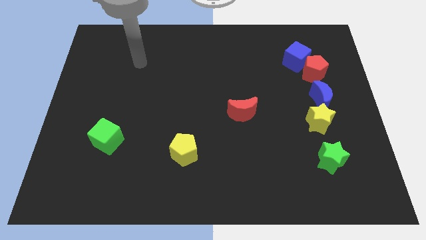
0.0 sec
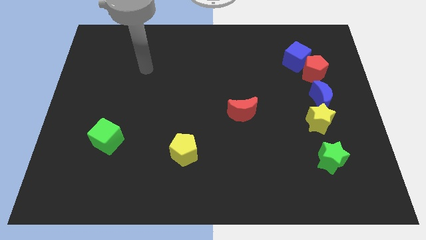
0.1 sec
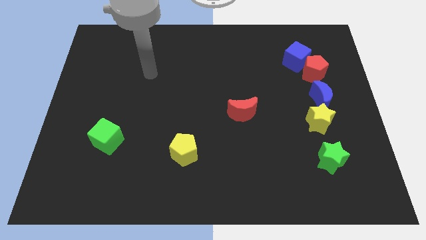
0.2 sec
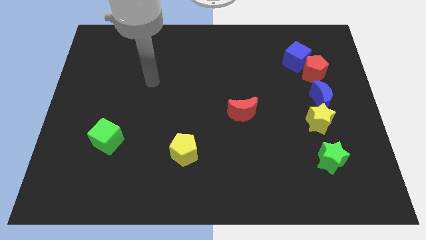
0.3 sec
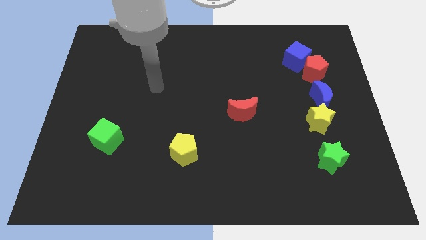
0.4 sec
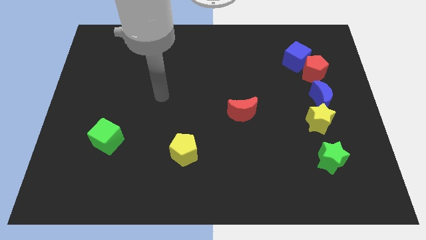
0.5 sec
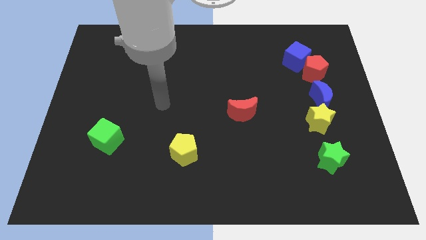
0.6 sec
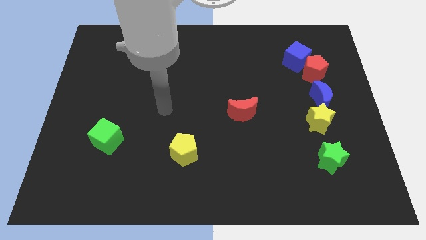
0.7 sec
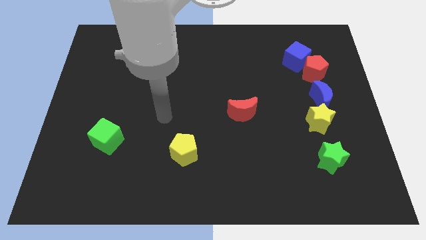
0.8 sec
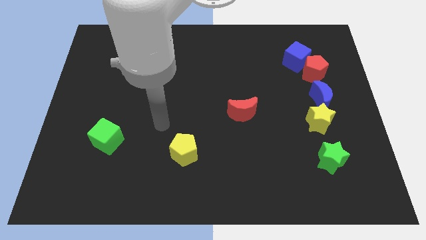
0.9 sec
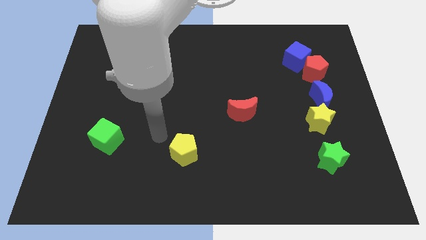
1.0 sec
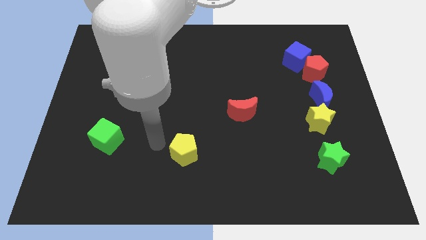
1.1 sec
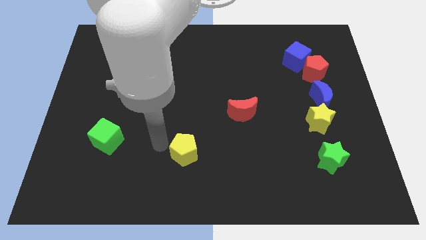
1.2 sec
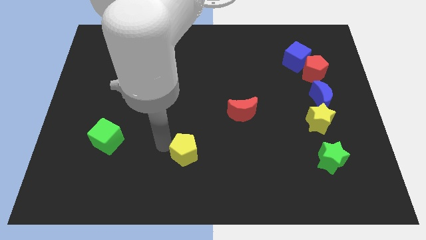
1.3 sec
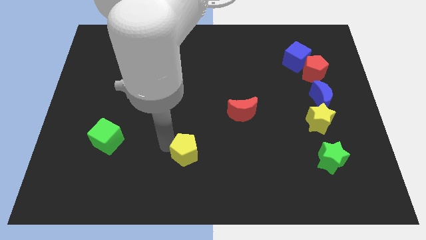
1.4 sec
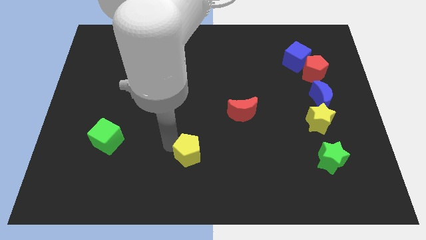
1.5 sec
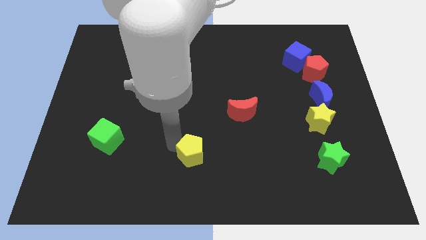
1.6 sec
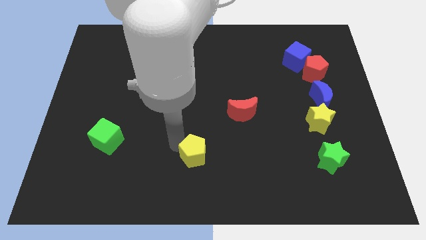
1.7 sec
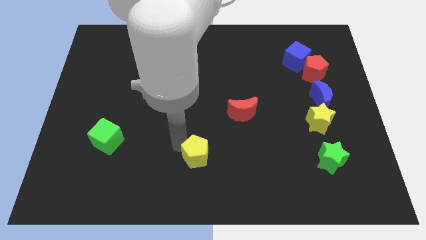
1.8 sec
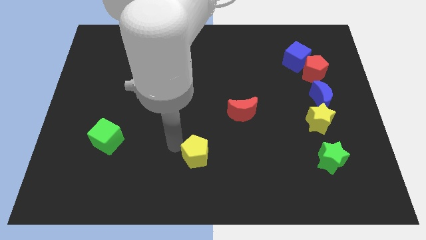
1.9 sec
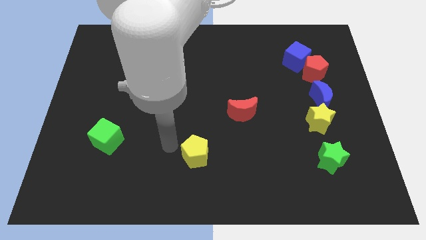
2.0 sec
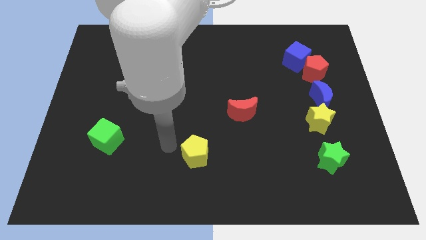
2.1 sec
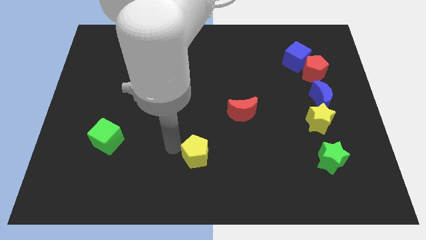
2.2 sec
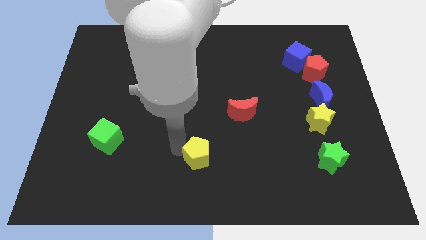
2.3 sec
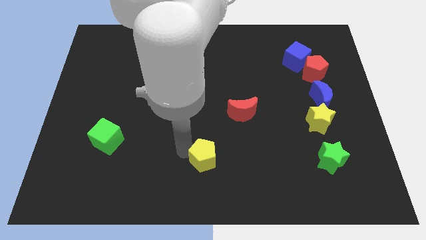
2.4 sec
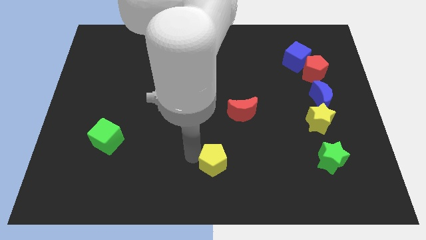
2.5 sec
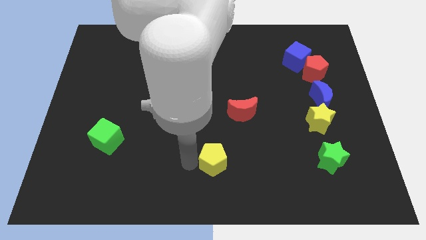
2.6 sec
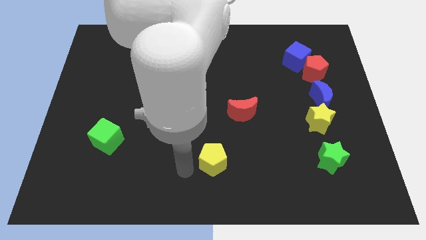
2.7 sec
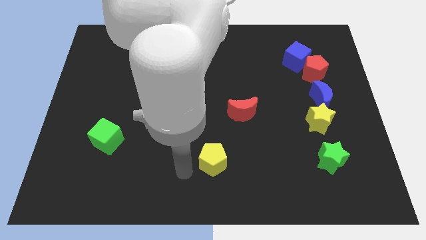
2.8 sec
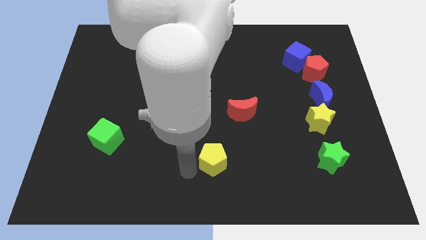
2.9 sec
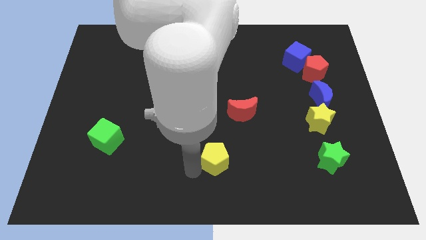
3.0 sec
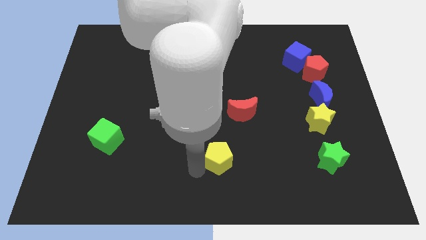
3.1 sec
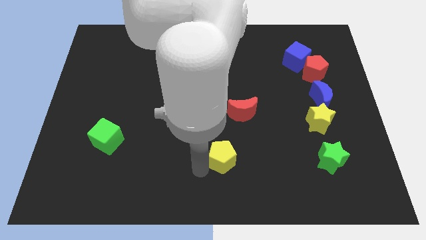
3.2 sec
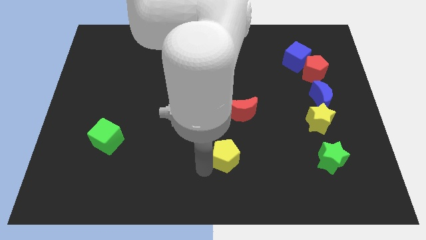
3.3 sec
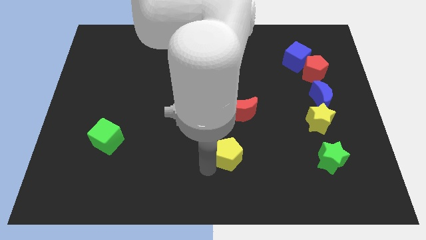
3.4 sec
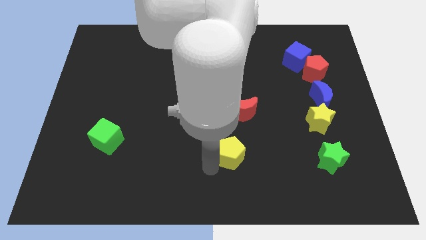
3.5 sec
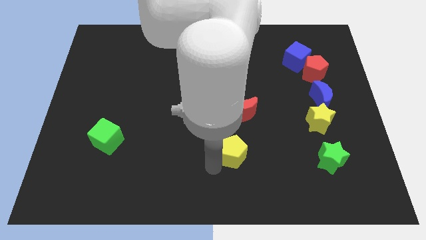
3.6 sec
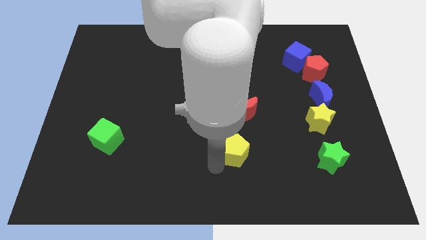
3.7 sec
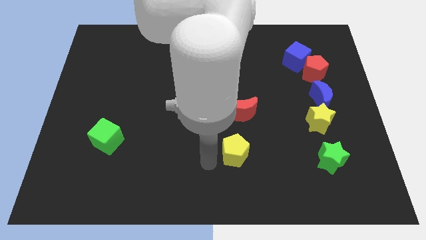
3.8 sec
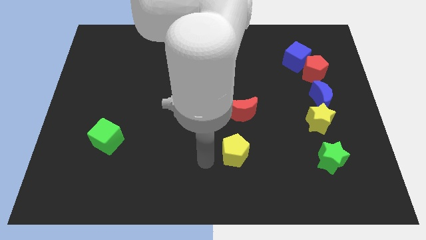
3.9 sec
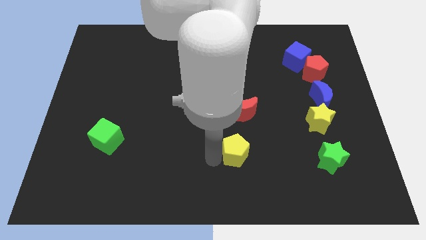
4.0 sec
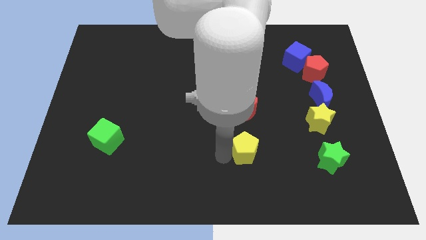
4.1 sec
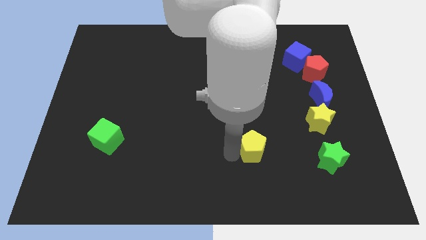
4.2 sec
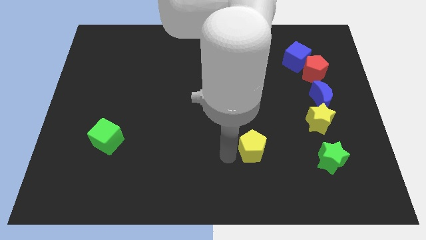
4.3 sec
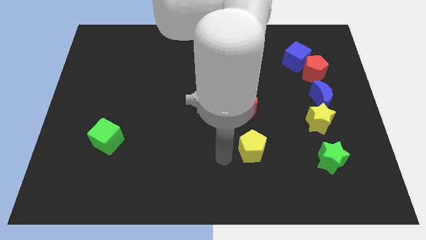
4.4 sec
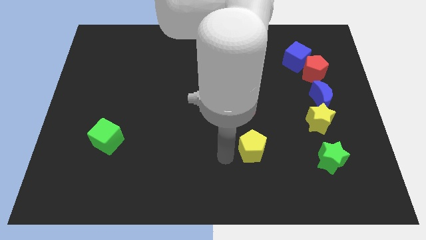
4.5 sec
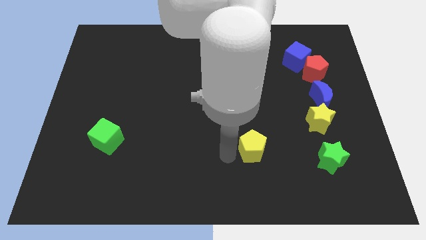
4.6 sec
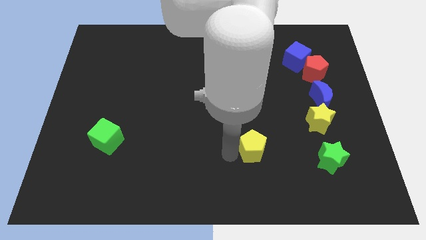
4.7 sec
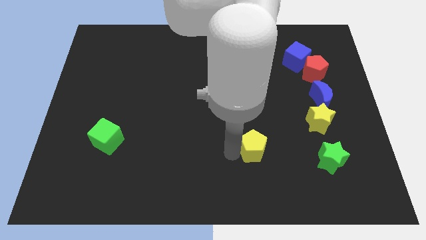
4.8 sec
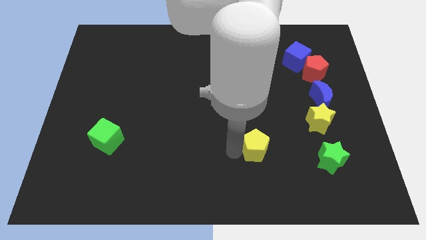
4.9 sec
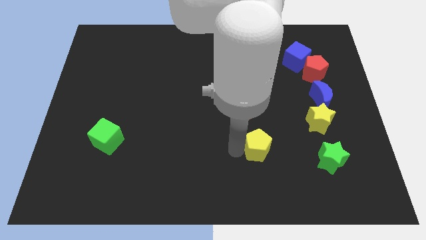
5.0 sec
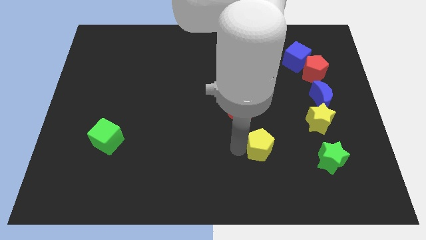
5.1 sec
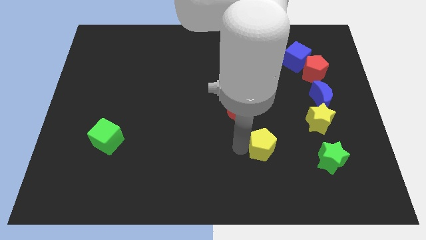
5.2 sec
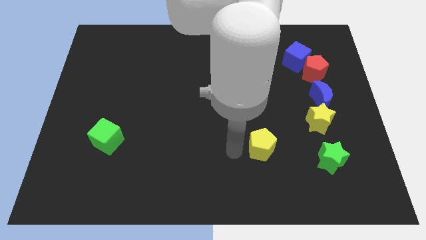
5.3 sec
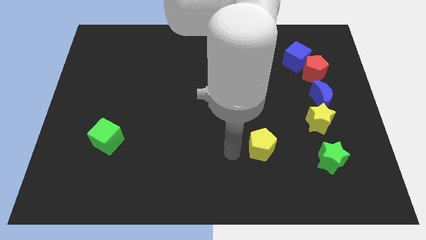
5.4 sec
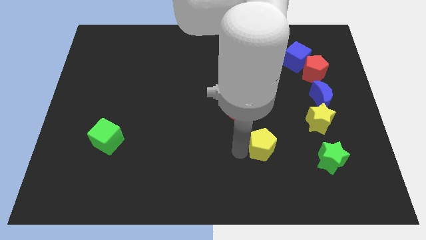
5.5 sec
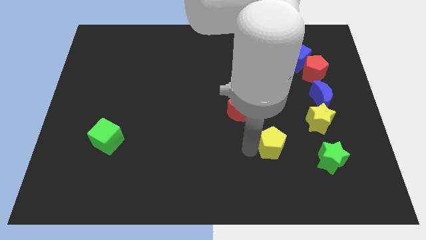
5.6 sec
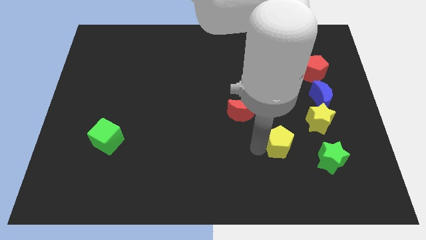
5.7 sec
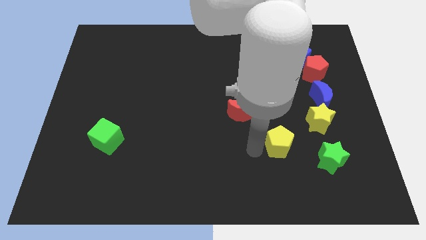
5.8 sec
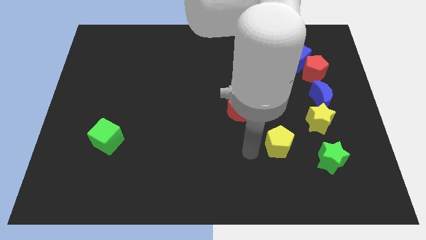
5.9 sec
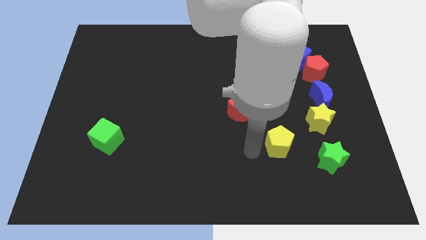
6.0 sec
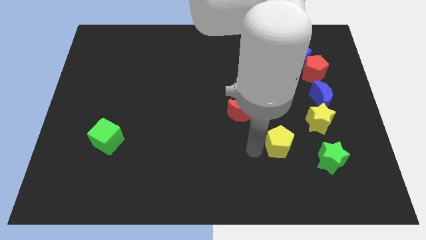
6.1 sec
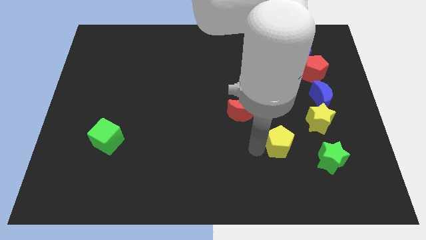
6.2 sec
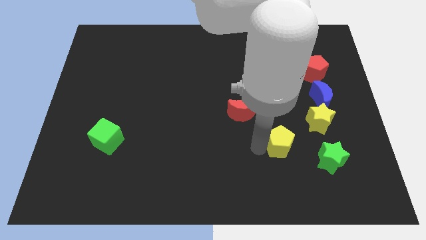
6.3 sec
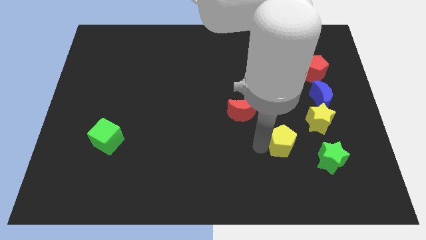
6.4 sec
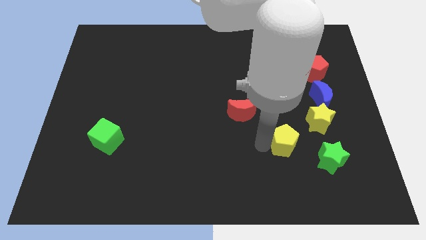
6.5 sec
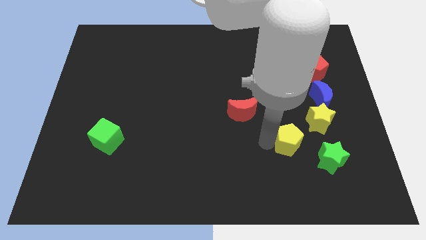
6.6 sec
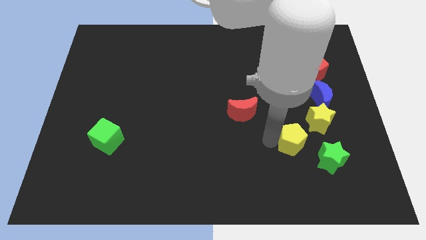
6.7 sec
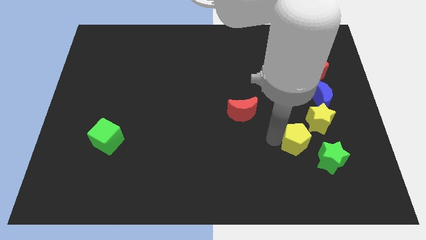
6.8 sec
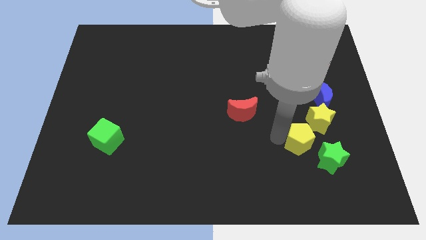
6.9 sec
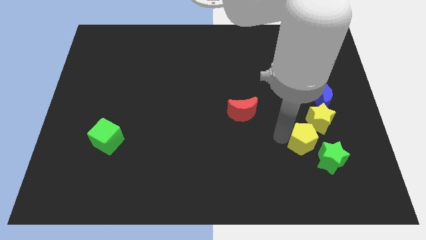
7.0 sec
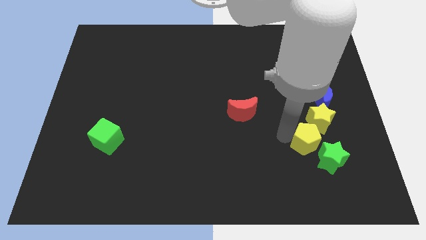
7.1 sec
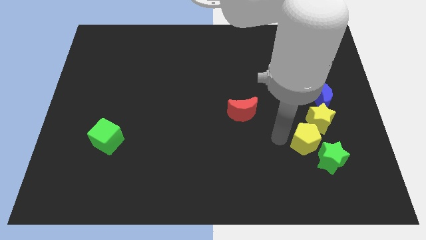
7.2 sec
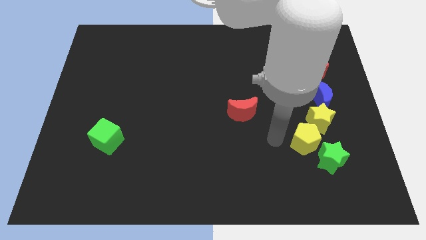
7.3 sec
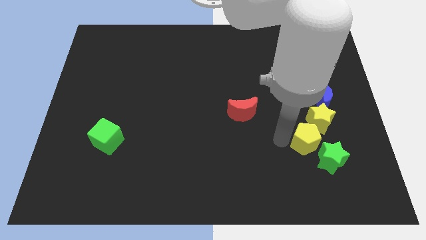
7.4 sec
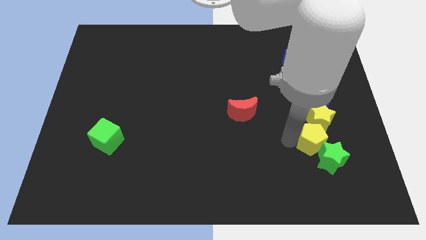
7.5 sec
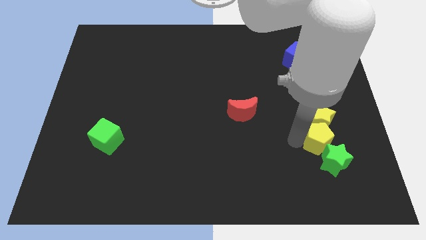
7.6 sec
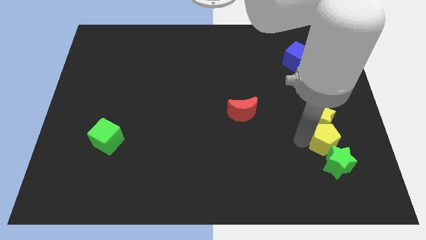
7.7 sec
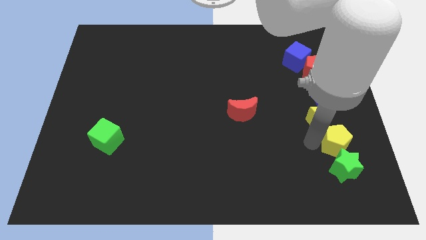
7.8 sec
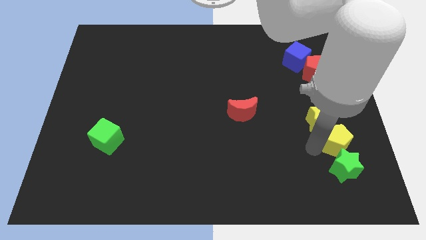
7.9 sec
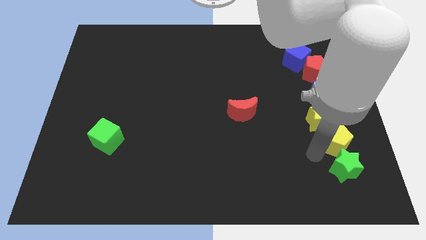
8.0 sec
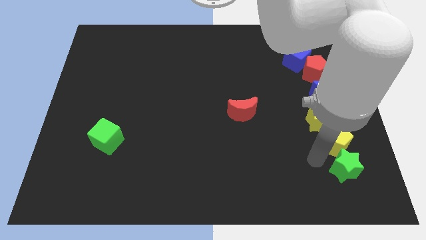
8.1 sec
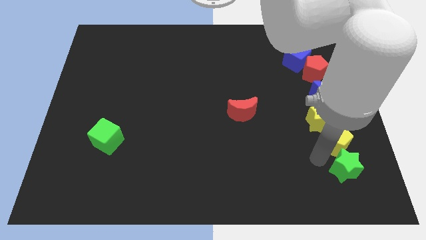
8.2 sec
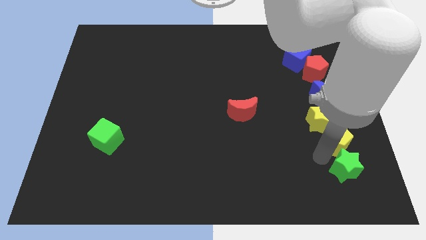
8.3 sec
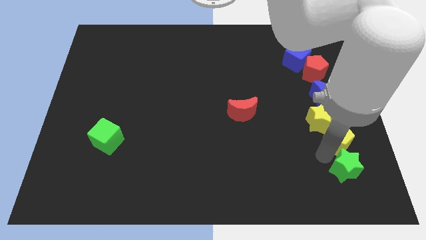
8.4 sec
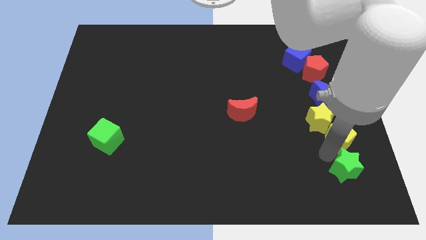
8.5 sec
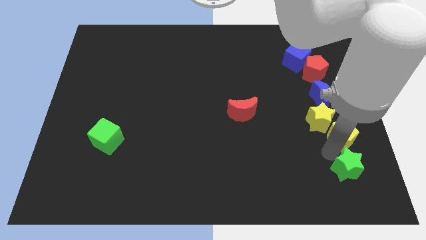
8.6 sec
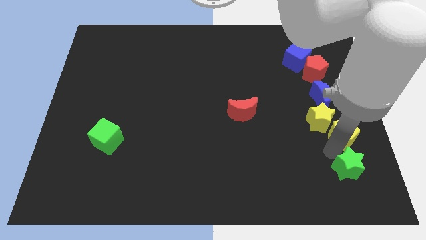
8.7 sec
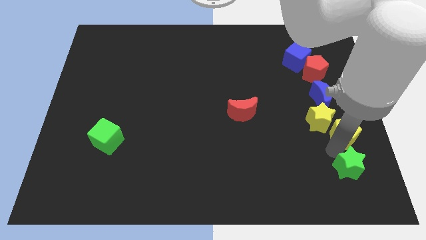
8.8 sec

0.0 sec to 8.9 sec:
move the yellow pentagon to the right side
